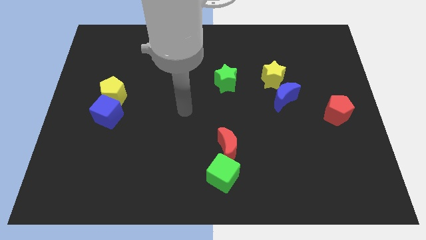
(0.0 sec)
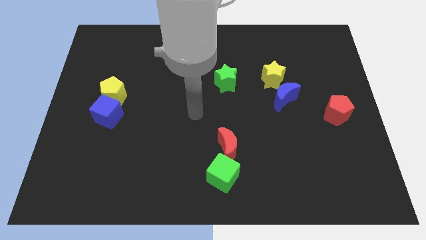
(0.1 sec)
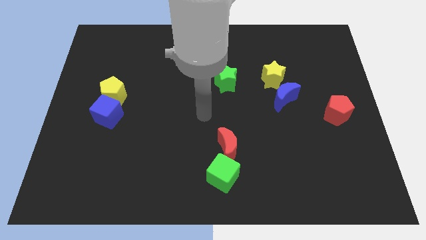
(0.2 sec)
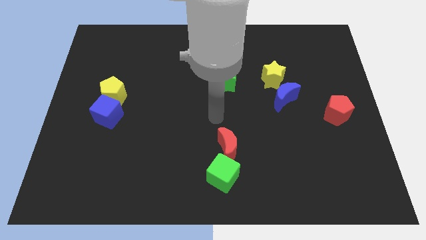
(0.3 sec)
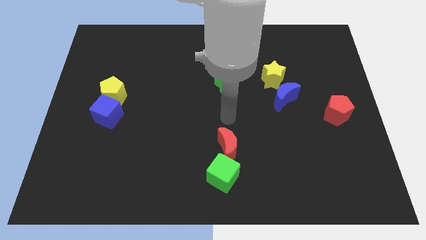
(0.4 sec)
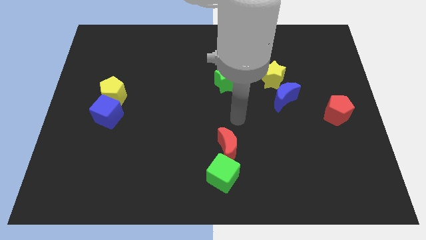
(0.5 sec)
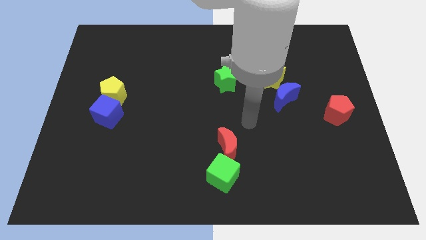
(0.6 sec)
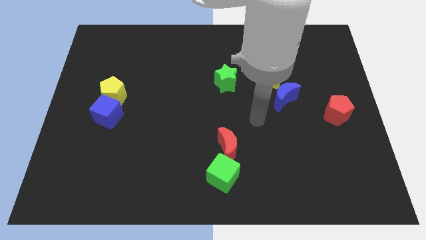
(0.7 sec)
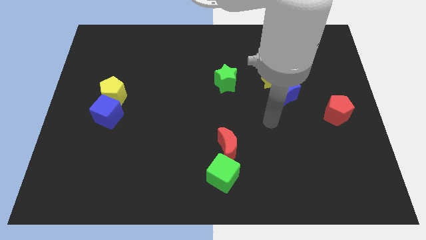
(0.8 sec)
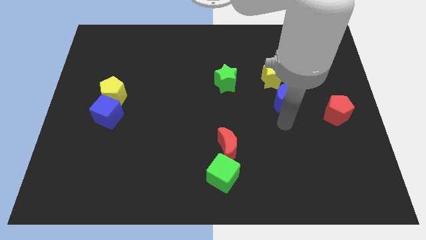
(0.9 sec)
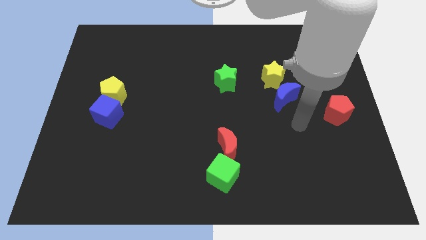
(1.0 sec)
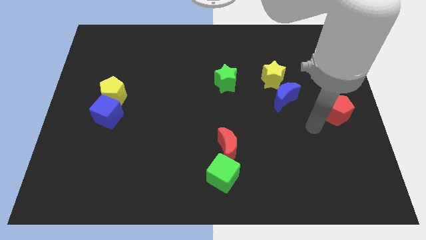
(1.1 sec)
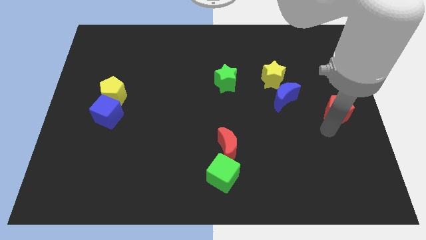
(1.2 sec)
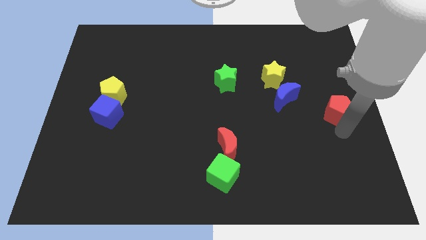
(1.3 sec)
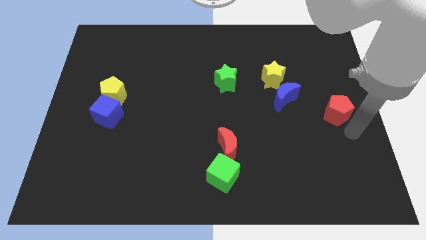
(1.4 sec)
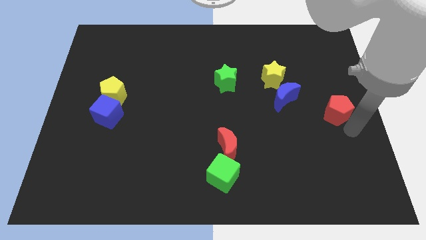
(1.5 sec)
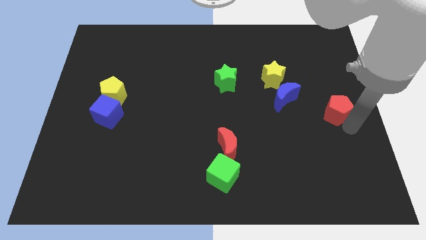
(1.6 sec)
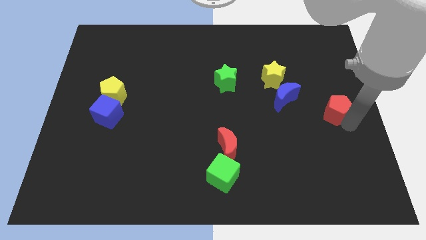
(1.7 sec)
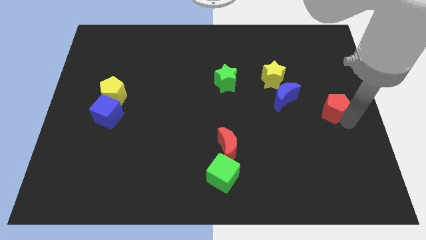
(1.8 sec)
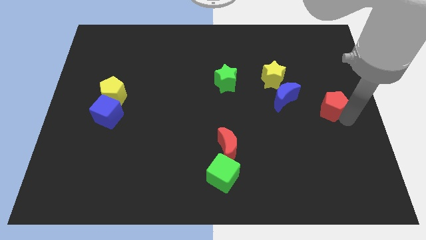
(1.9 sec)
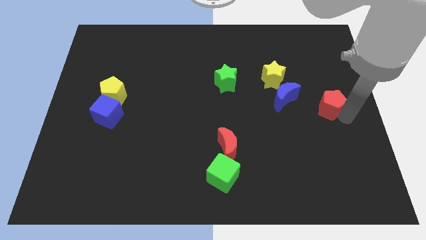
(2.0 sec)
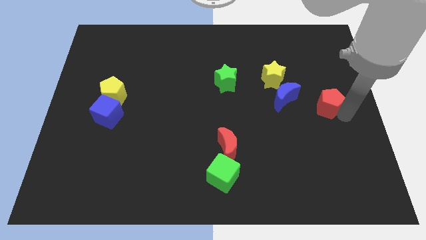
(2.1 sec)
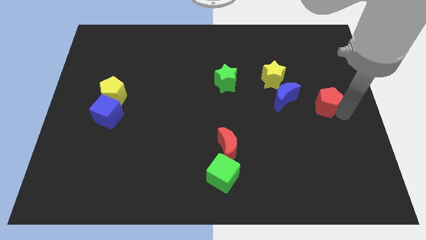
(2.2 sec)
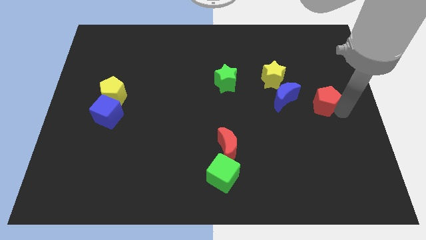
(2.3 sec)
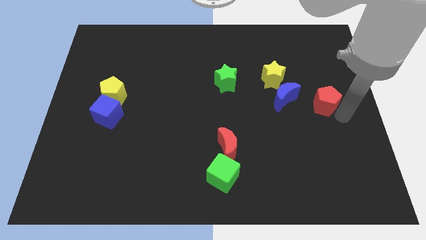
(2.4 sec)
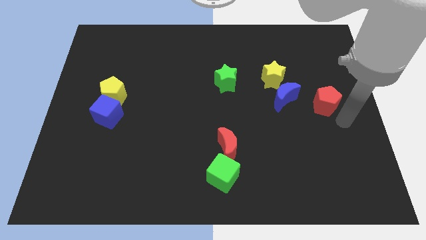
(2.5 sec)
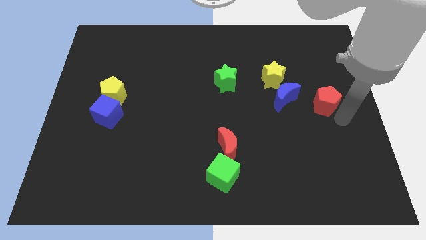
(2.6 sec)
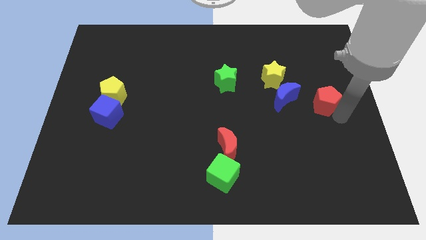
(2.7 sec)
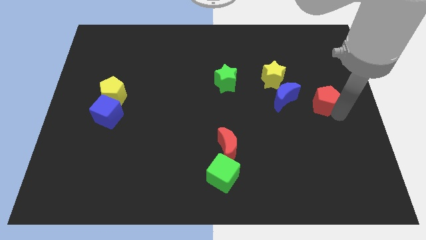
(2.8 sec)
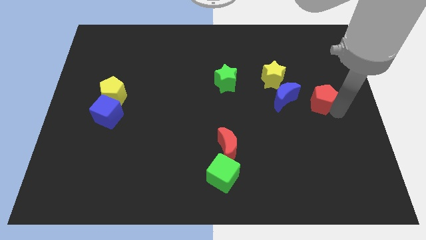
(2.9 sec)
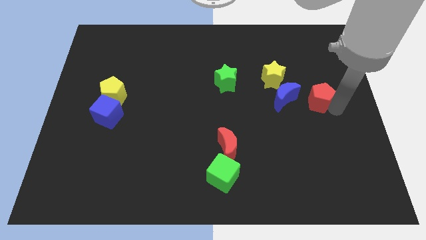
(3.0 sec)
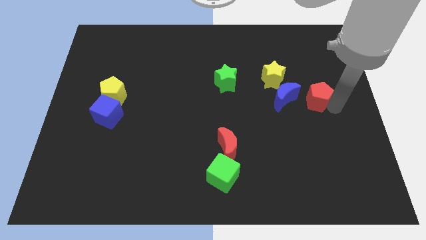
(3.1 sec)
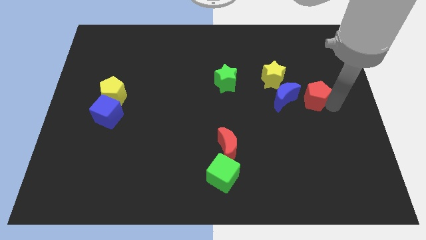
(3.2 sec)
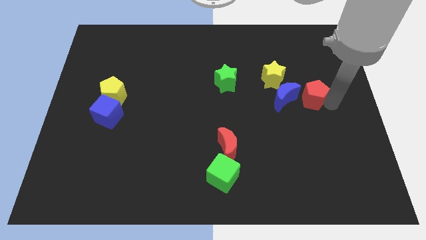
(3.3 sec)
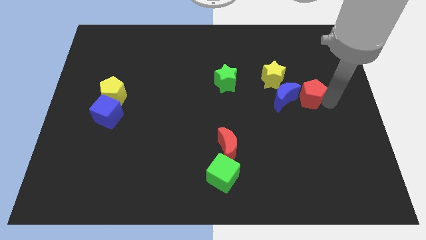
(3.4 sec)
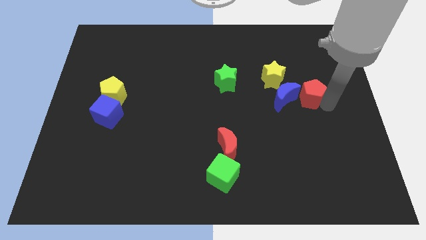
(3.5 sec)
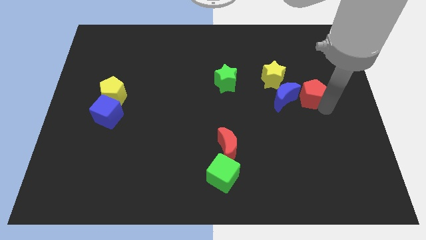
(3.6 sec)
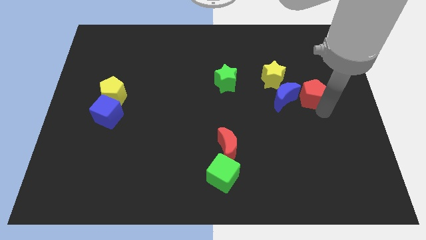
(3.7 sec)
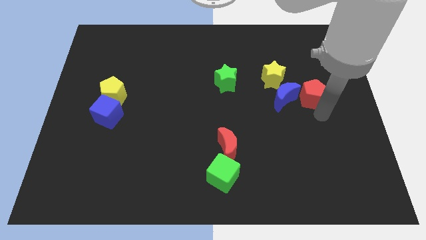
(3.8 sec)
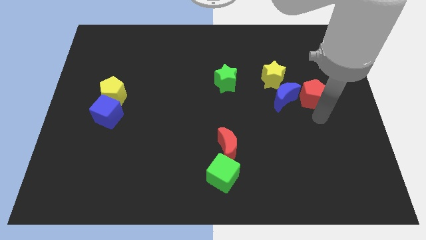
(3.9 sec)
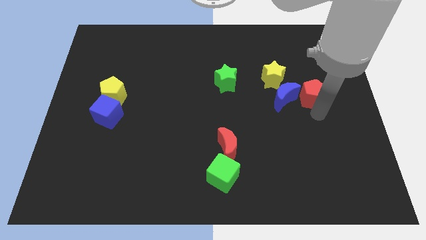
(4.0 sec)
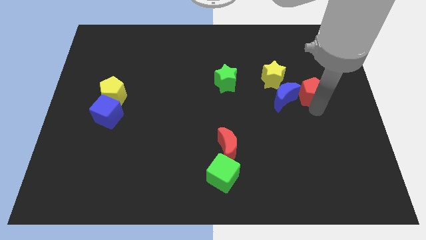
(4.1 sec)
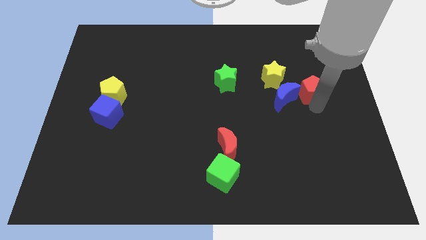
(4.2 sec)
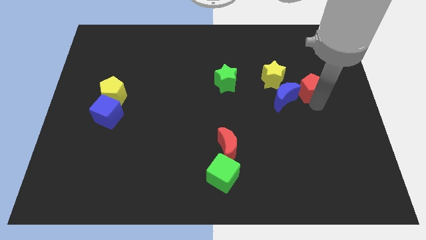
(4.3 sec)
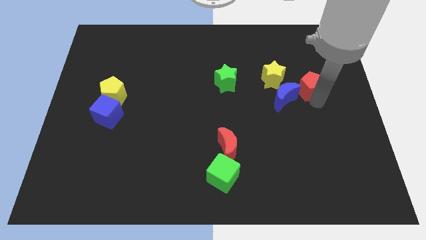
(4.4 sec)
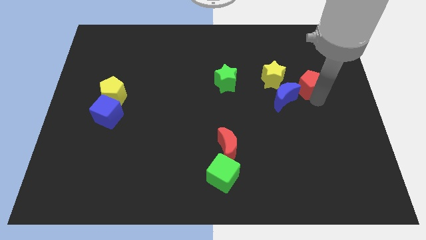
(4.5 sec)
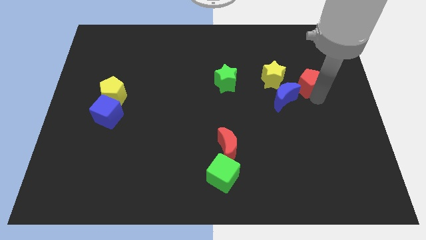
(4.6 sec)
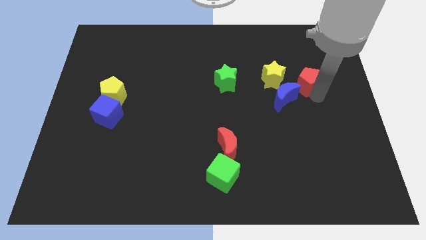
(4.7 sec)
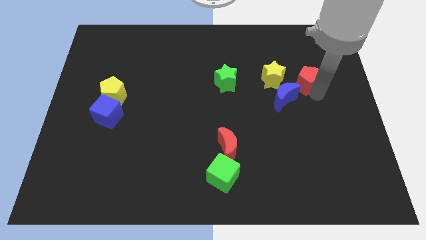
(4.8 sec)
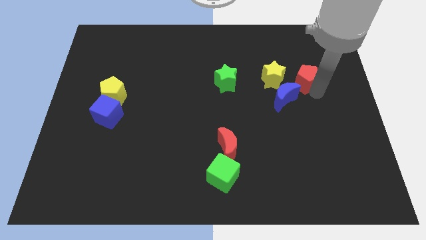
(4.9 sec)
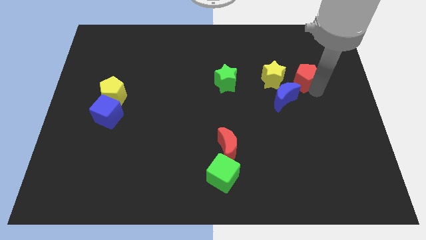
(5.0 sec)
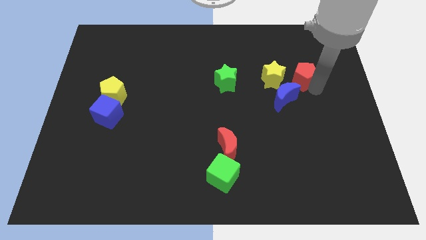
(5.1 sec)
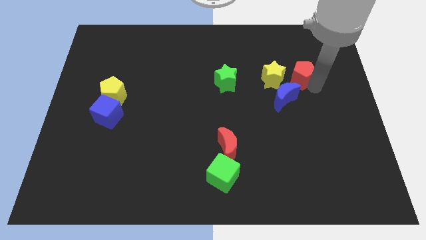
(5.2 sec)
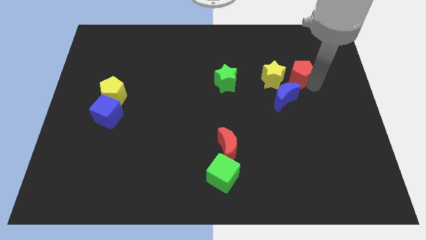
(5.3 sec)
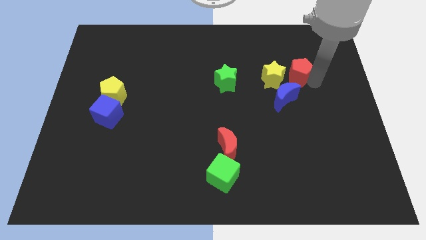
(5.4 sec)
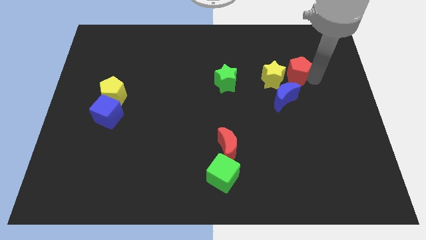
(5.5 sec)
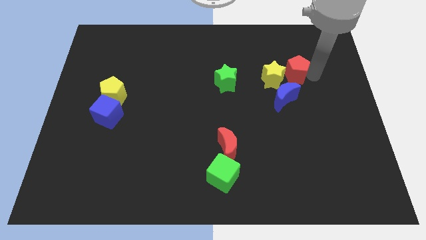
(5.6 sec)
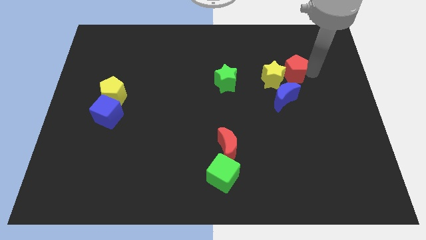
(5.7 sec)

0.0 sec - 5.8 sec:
push the red pentagon to the yellow star

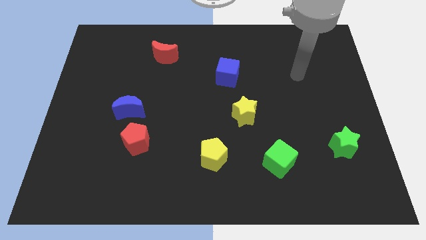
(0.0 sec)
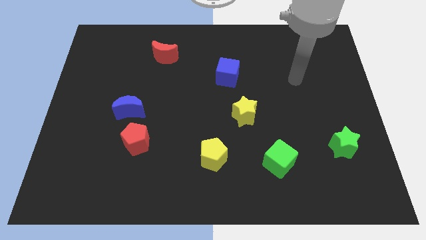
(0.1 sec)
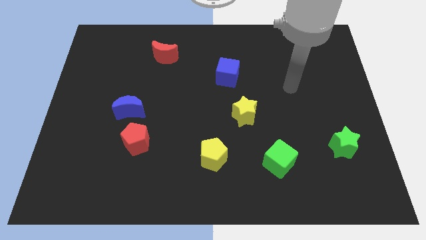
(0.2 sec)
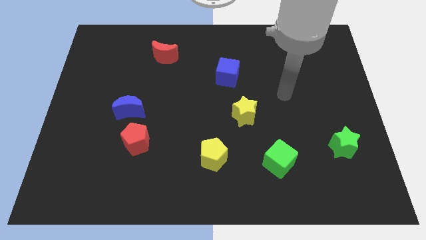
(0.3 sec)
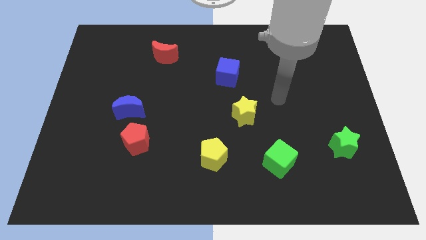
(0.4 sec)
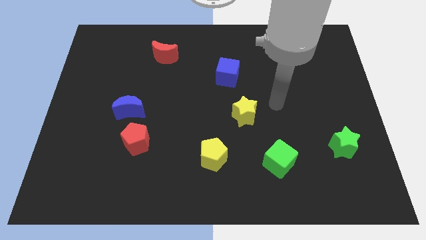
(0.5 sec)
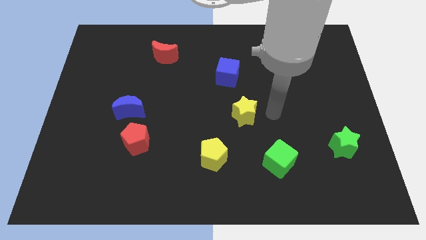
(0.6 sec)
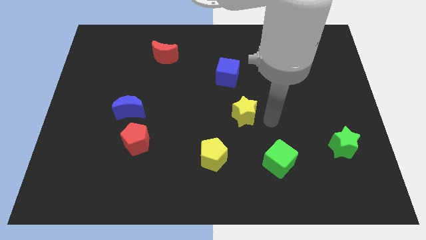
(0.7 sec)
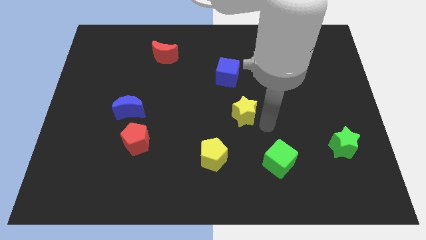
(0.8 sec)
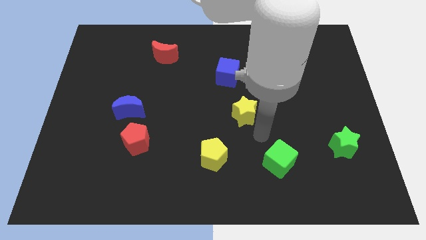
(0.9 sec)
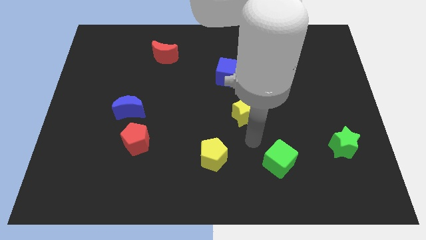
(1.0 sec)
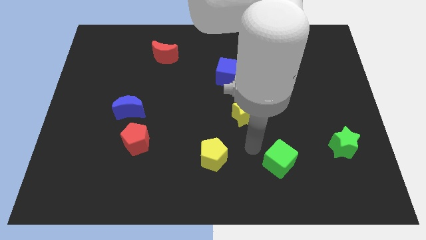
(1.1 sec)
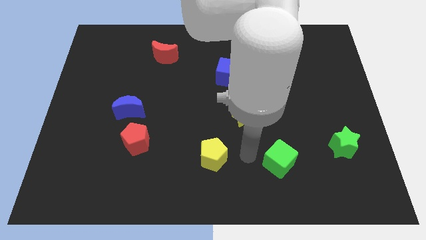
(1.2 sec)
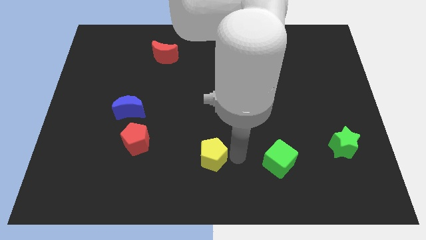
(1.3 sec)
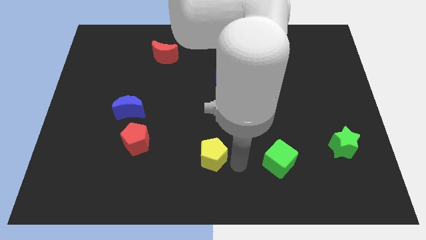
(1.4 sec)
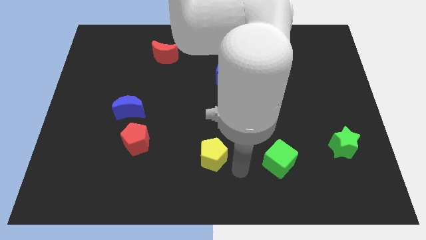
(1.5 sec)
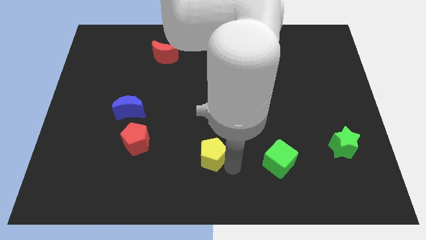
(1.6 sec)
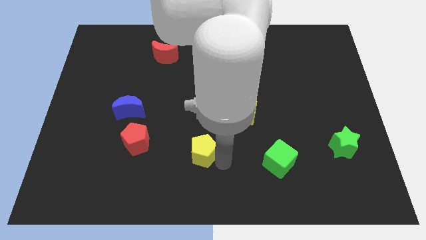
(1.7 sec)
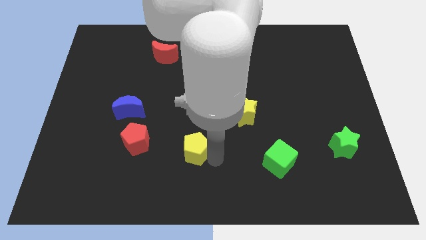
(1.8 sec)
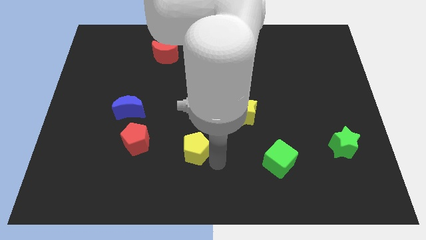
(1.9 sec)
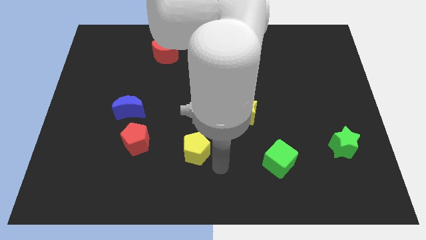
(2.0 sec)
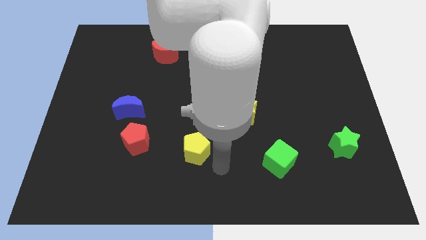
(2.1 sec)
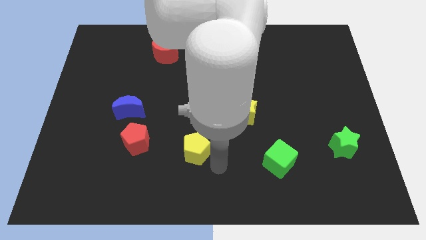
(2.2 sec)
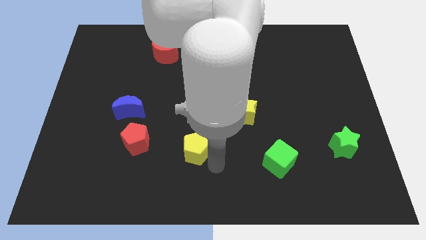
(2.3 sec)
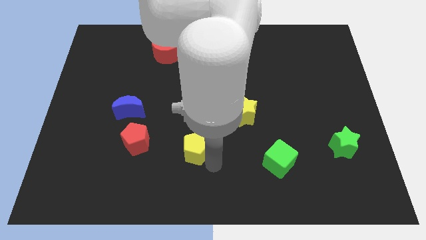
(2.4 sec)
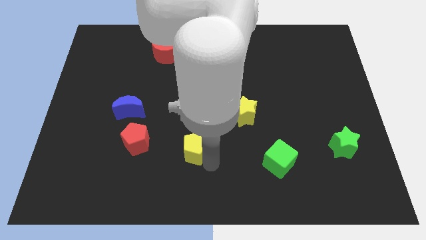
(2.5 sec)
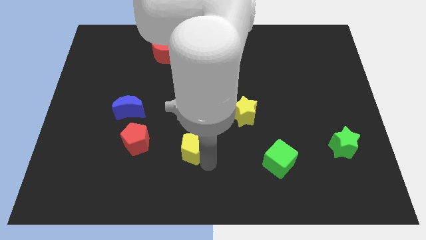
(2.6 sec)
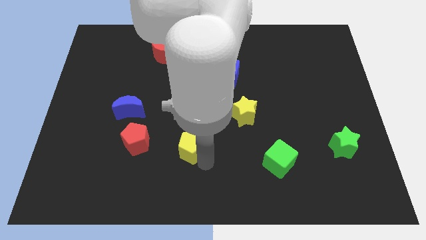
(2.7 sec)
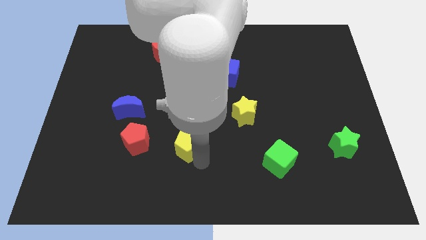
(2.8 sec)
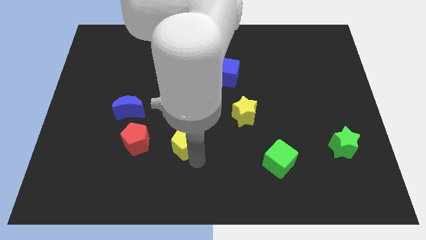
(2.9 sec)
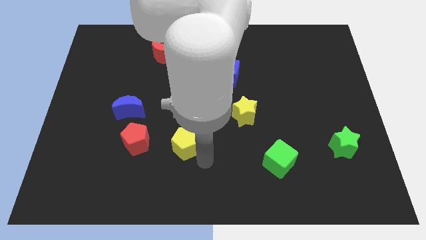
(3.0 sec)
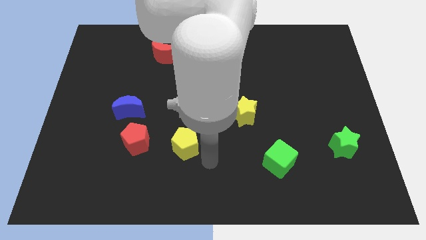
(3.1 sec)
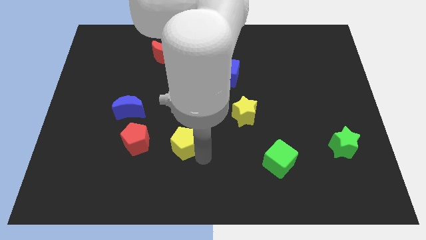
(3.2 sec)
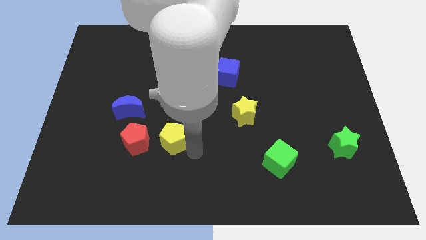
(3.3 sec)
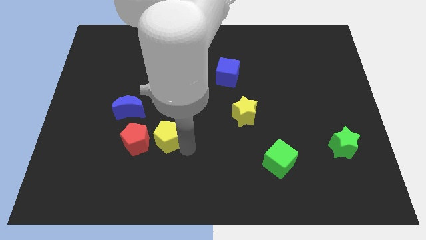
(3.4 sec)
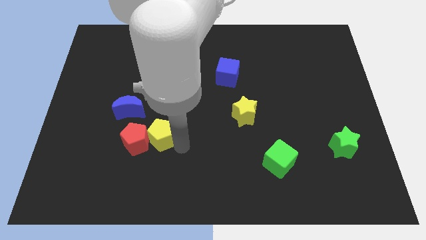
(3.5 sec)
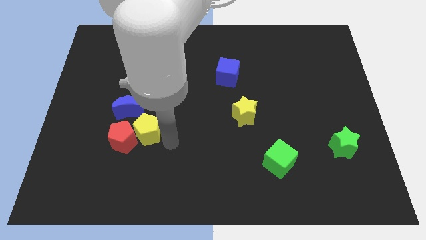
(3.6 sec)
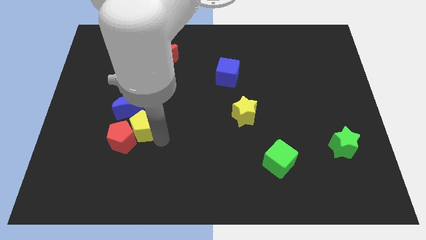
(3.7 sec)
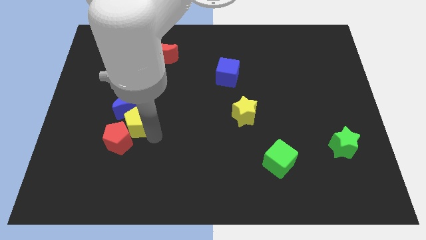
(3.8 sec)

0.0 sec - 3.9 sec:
push the yellow pentagon close to the blue moon
